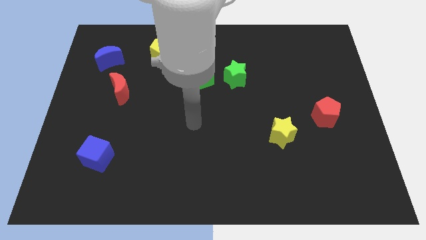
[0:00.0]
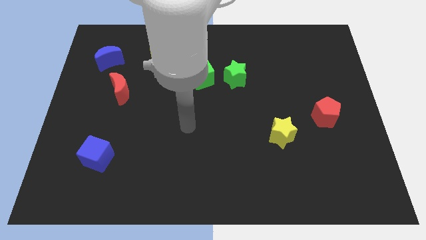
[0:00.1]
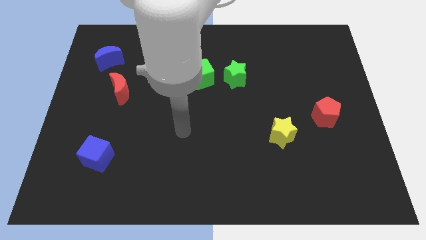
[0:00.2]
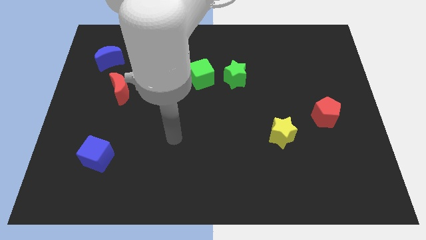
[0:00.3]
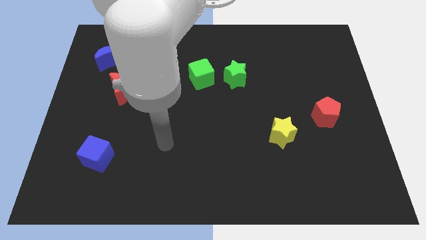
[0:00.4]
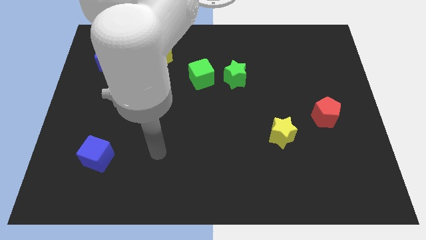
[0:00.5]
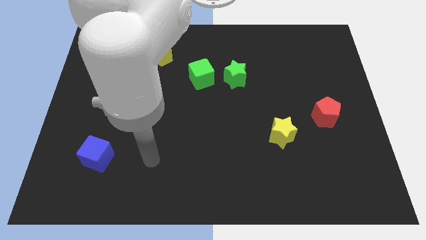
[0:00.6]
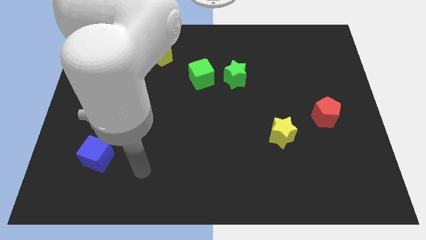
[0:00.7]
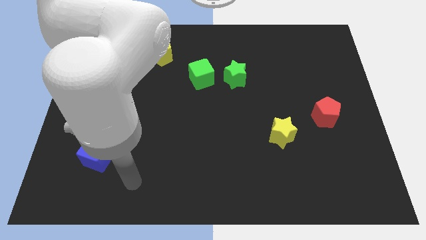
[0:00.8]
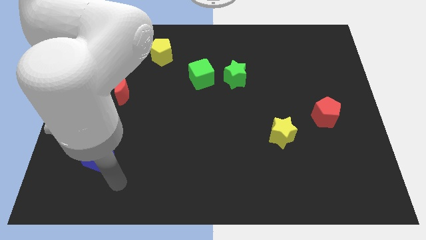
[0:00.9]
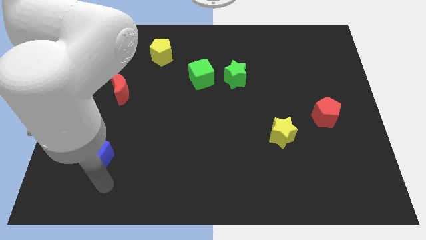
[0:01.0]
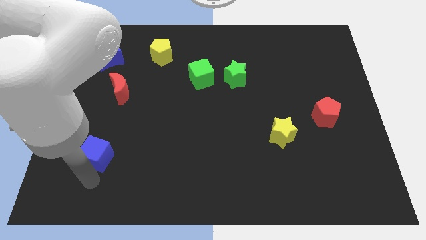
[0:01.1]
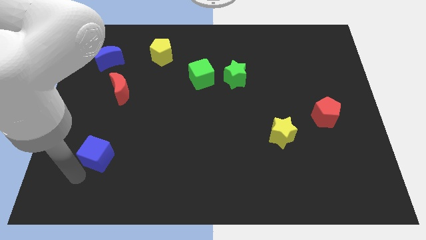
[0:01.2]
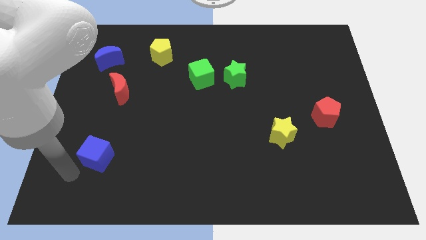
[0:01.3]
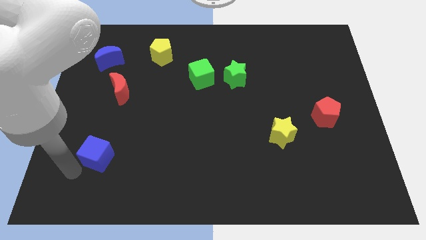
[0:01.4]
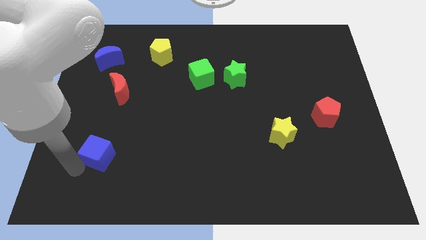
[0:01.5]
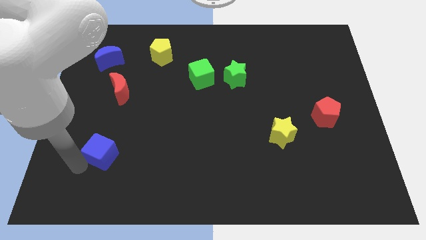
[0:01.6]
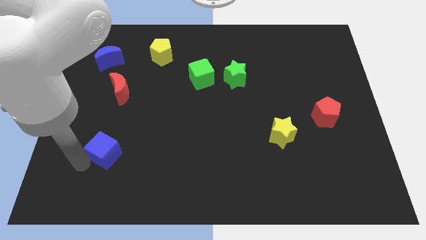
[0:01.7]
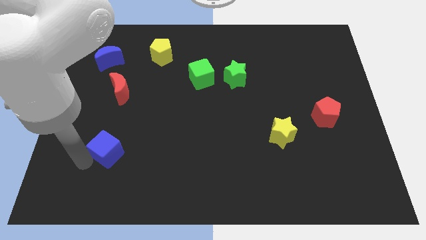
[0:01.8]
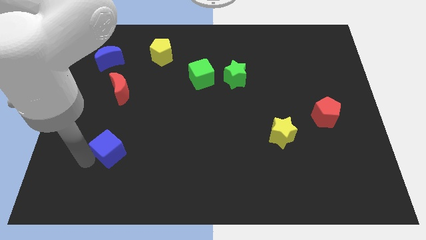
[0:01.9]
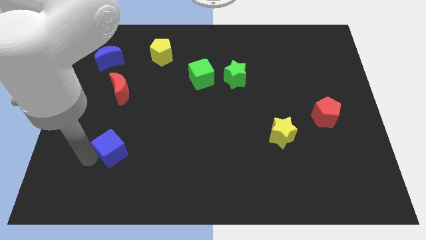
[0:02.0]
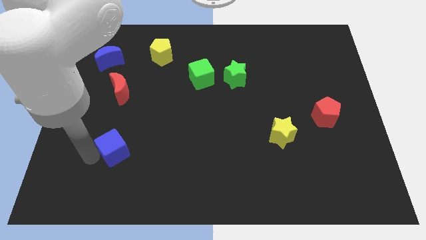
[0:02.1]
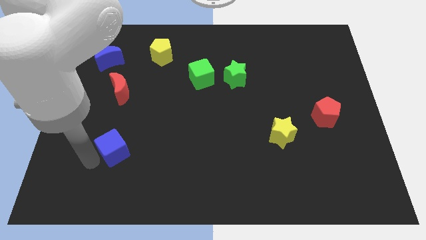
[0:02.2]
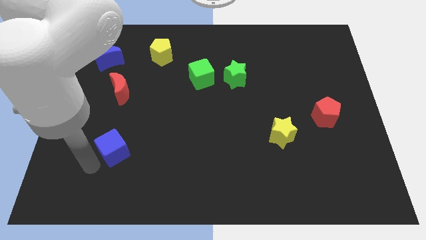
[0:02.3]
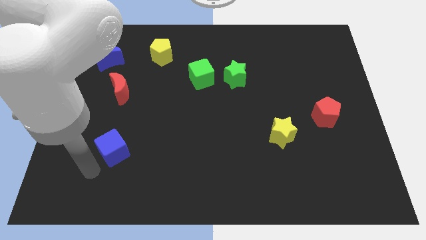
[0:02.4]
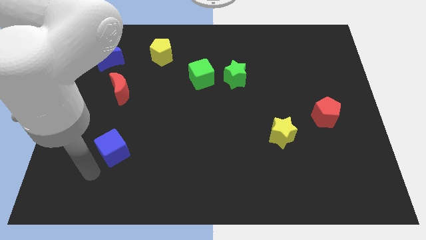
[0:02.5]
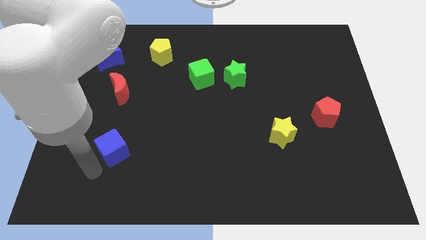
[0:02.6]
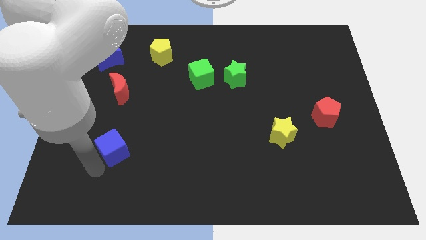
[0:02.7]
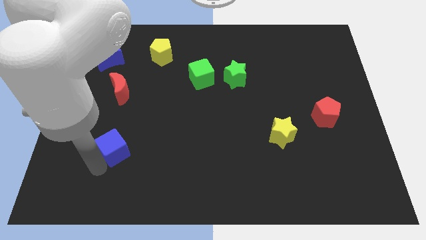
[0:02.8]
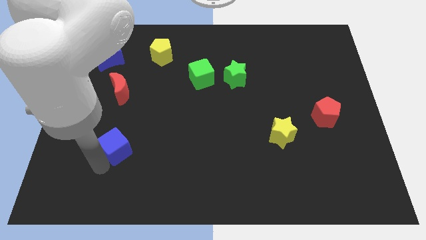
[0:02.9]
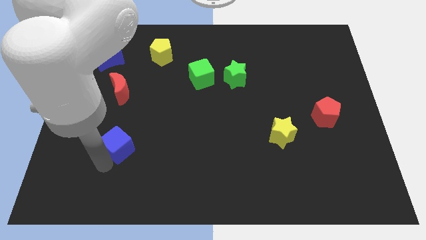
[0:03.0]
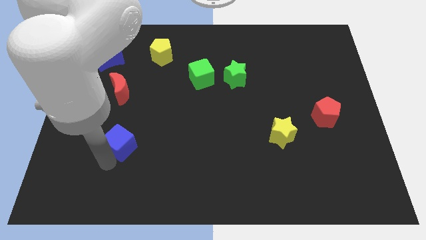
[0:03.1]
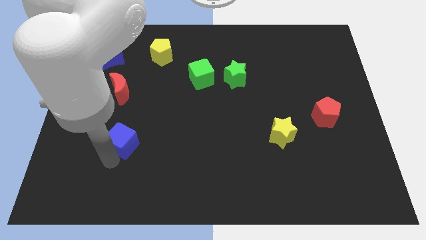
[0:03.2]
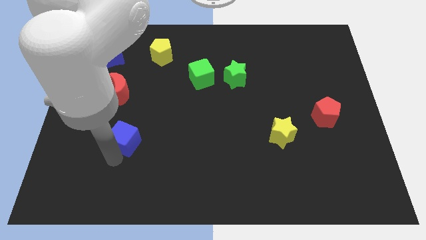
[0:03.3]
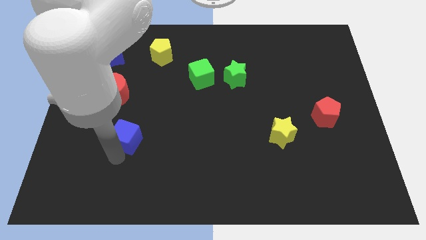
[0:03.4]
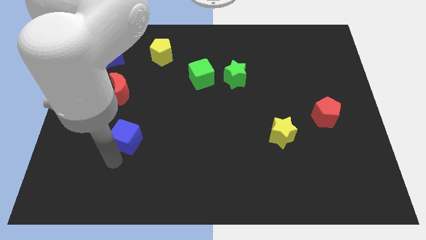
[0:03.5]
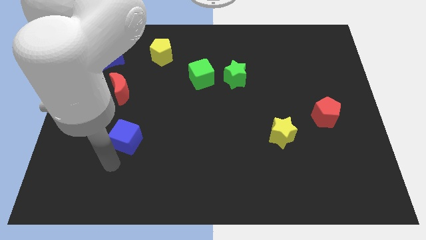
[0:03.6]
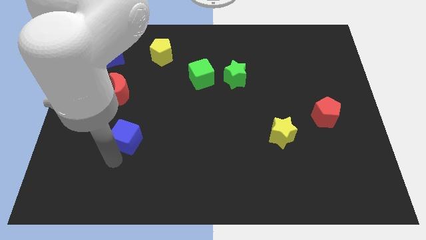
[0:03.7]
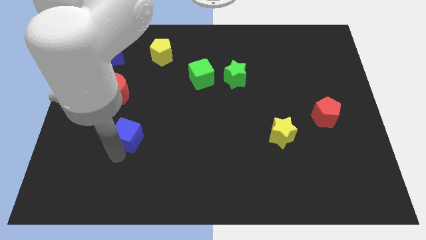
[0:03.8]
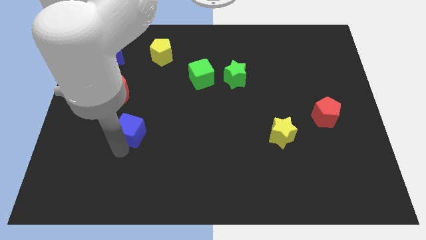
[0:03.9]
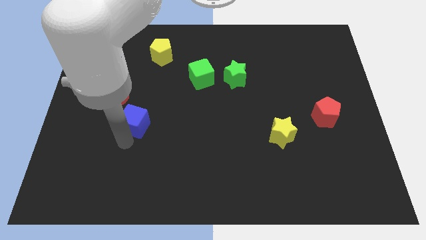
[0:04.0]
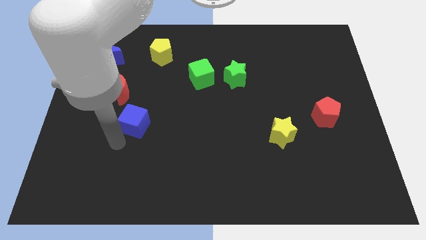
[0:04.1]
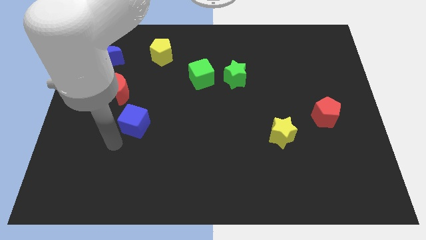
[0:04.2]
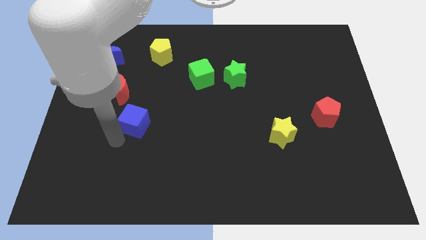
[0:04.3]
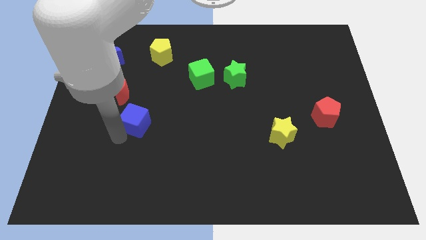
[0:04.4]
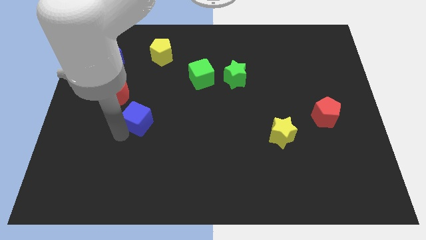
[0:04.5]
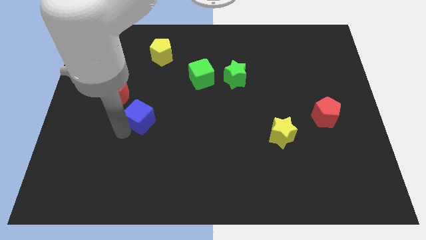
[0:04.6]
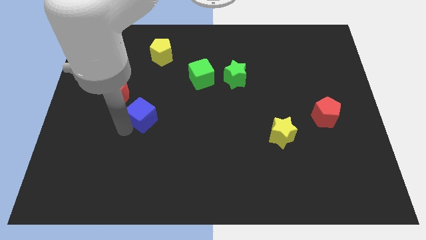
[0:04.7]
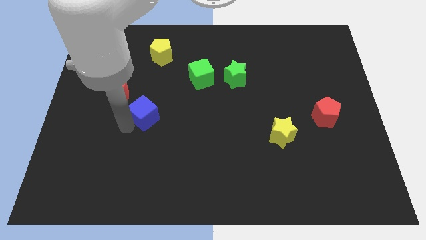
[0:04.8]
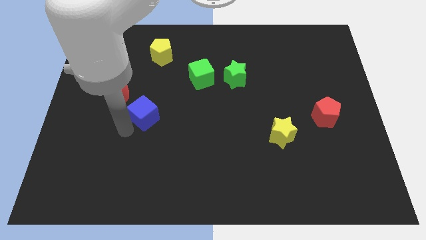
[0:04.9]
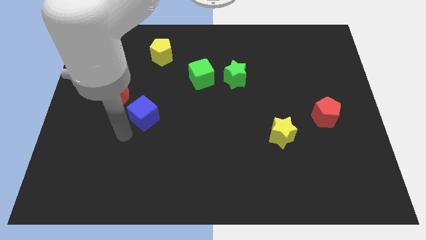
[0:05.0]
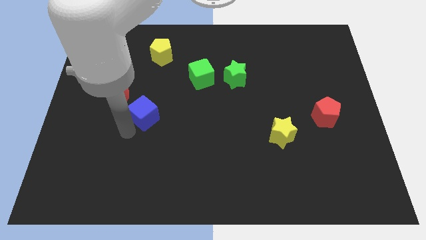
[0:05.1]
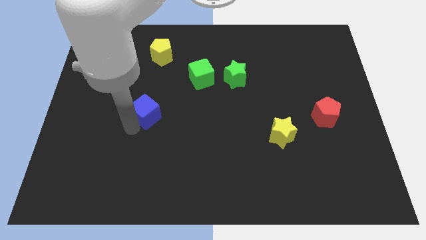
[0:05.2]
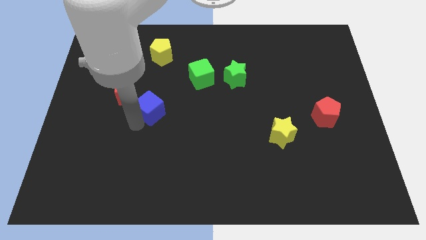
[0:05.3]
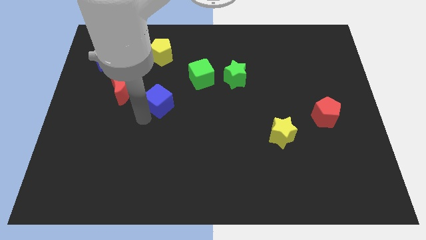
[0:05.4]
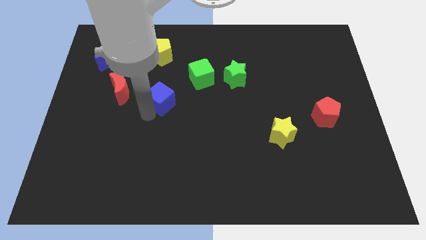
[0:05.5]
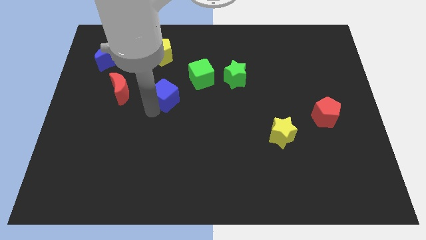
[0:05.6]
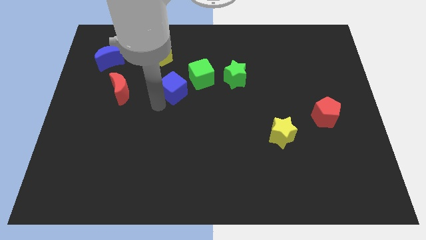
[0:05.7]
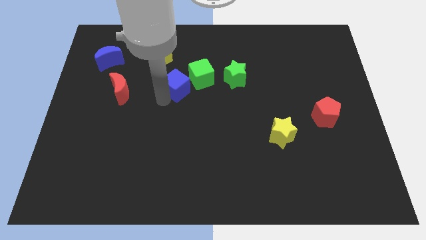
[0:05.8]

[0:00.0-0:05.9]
move the blue cube to the left of the green star

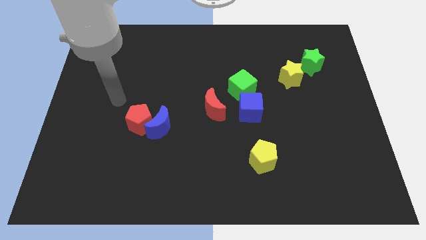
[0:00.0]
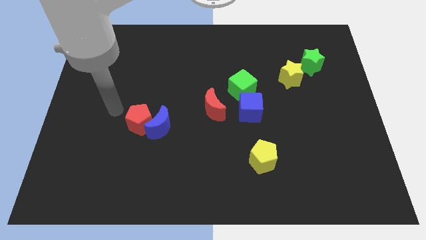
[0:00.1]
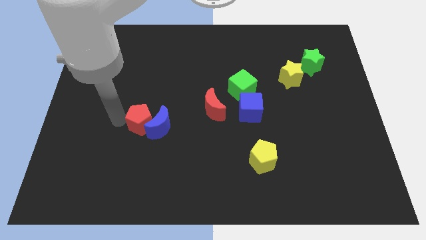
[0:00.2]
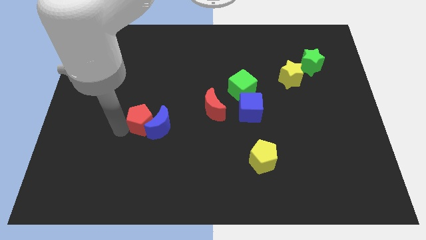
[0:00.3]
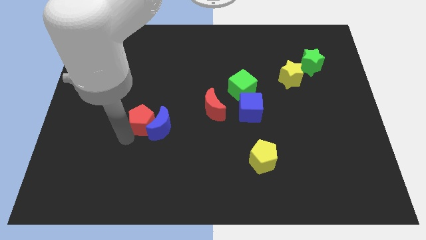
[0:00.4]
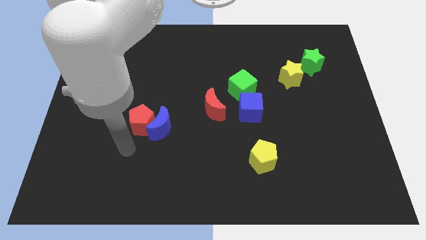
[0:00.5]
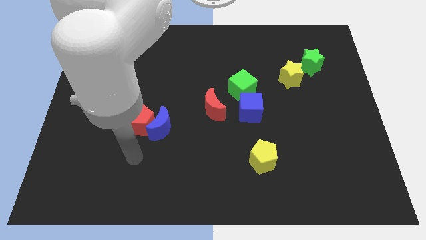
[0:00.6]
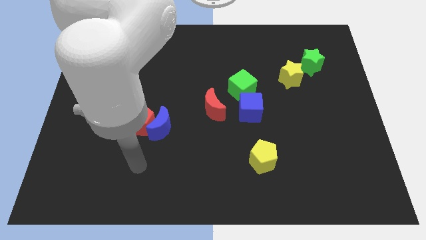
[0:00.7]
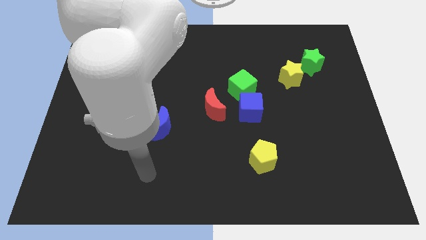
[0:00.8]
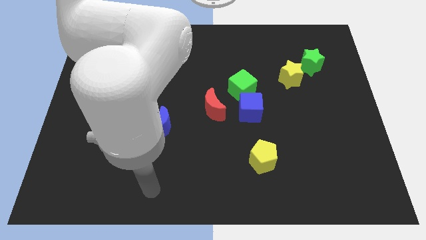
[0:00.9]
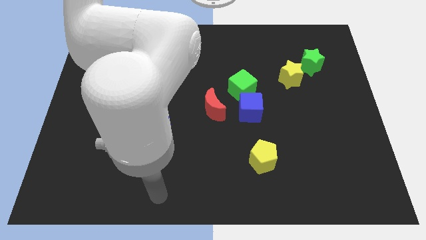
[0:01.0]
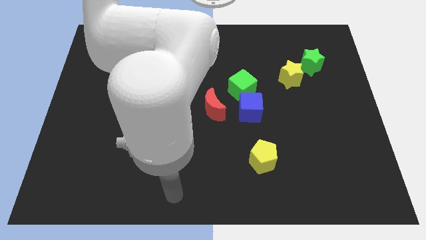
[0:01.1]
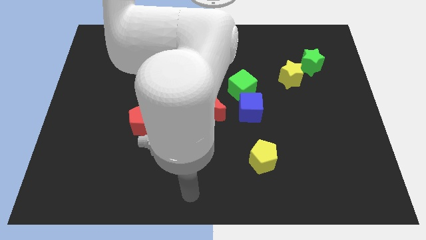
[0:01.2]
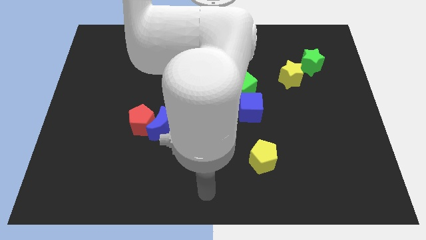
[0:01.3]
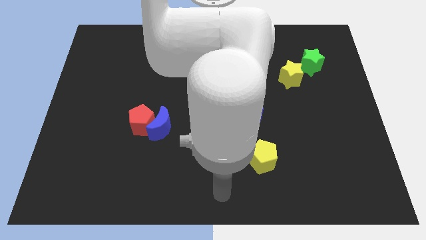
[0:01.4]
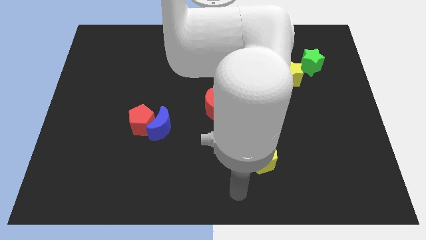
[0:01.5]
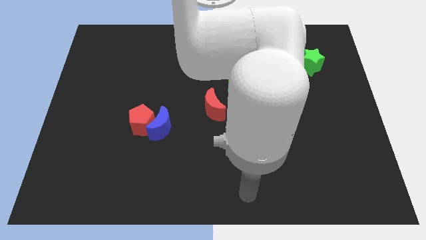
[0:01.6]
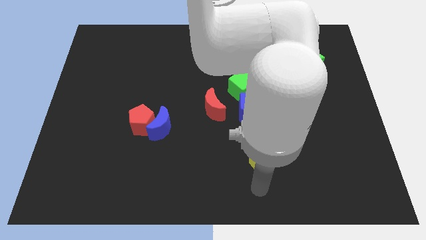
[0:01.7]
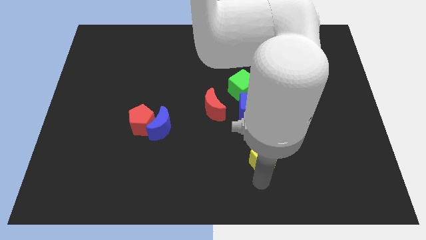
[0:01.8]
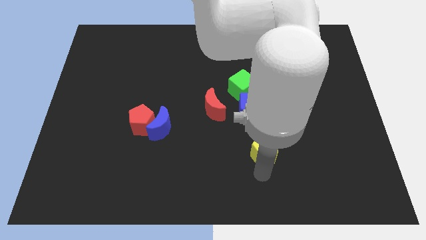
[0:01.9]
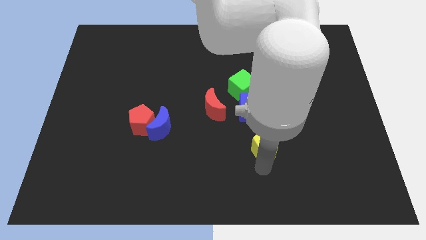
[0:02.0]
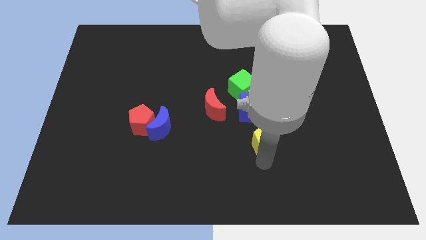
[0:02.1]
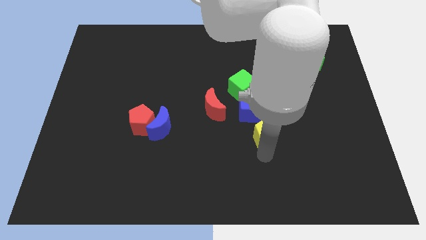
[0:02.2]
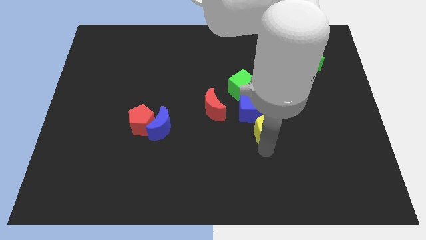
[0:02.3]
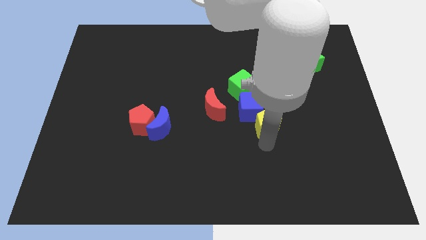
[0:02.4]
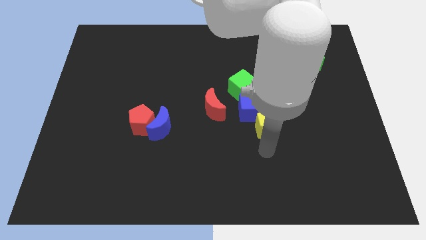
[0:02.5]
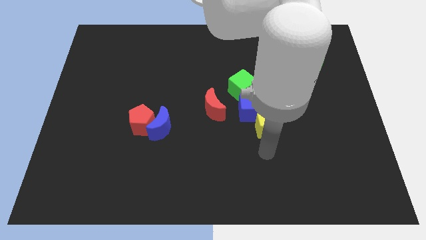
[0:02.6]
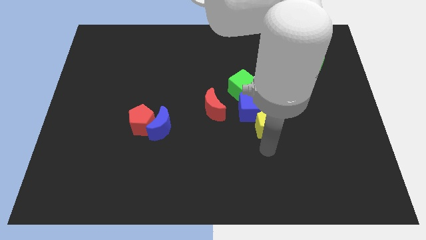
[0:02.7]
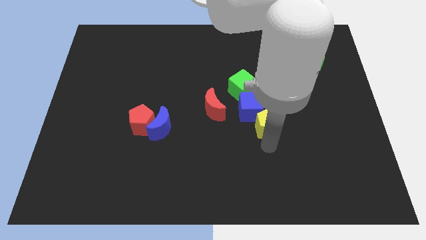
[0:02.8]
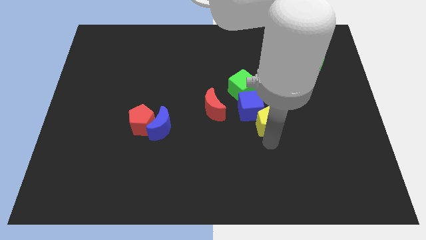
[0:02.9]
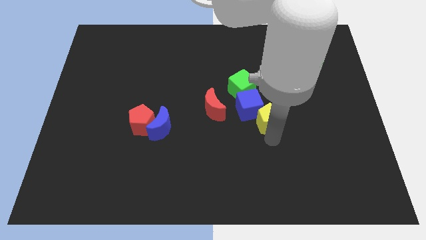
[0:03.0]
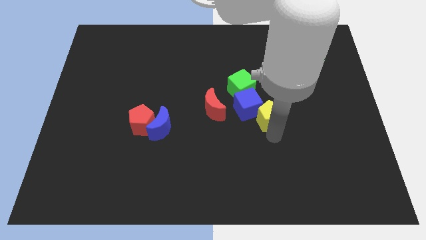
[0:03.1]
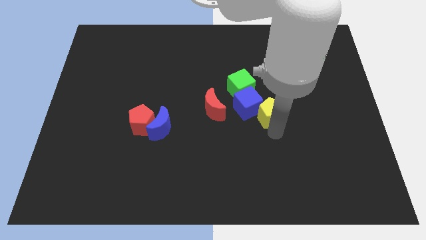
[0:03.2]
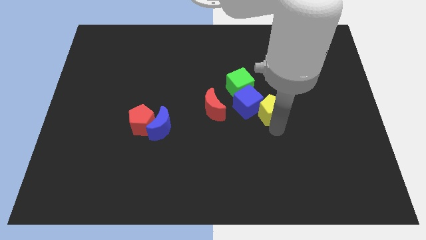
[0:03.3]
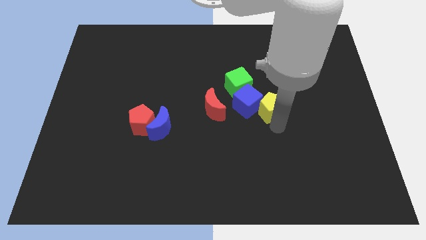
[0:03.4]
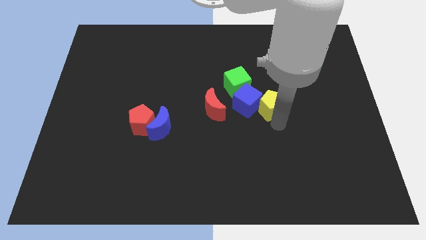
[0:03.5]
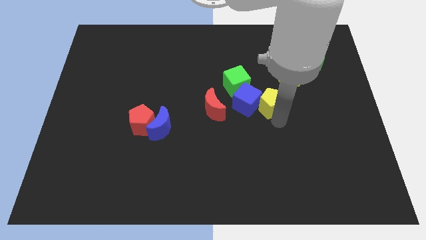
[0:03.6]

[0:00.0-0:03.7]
slide the yellow pentagon to the top right of the blue cube
